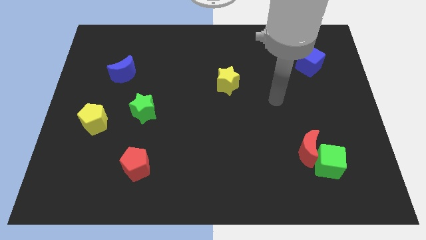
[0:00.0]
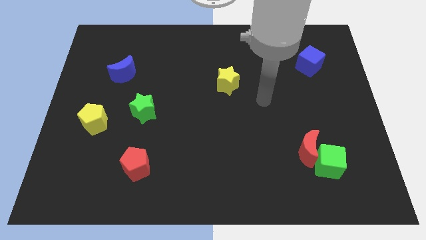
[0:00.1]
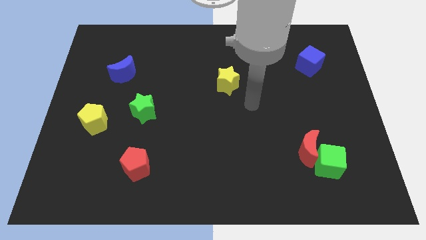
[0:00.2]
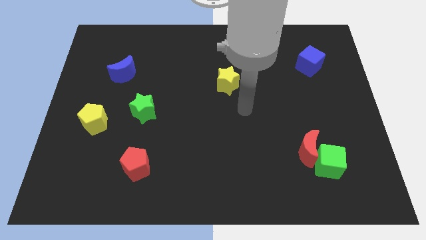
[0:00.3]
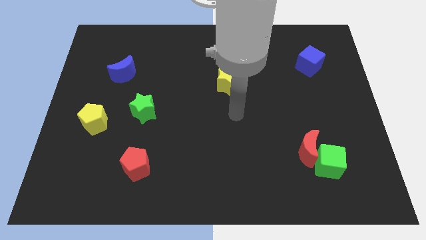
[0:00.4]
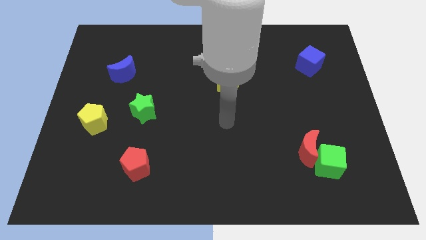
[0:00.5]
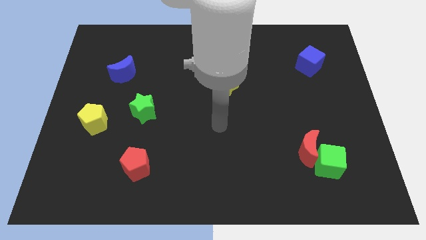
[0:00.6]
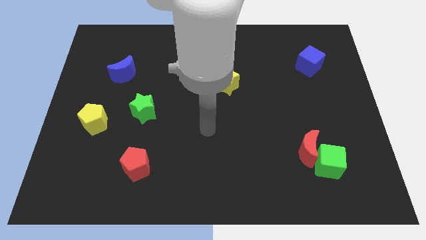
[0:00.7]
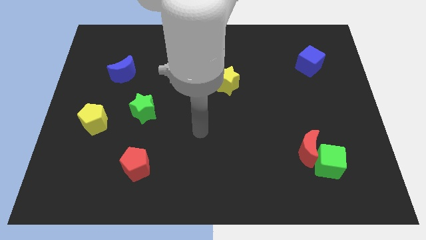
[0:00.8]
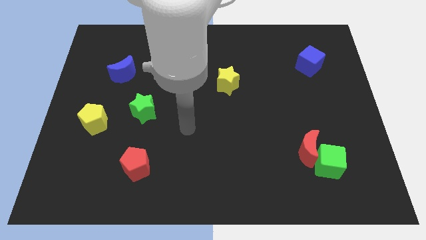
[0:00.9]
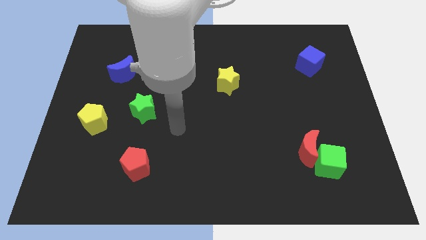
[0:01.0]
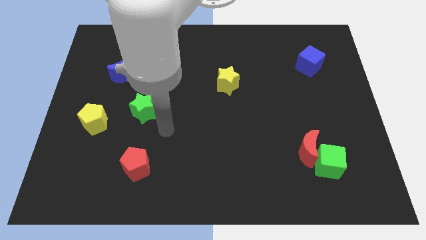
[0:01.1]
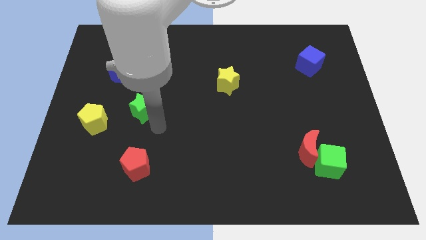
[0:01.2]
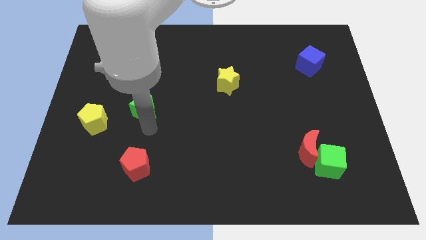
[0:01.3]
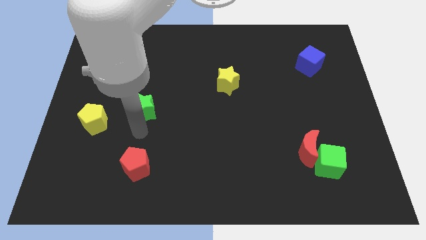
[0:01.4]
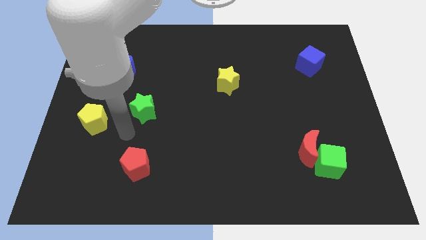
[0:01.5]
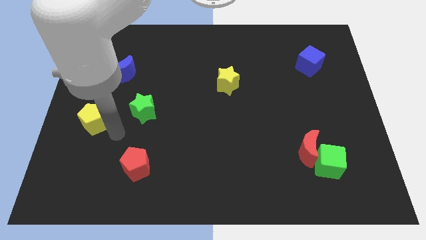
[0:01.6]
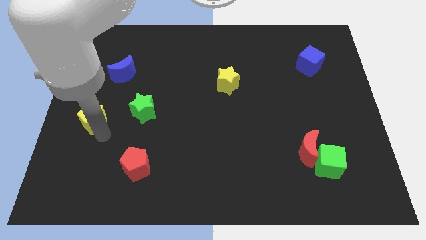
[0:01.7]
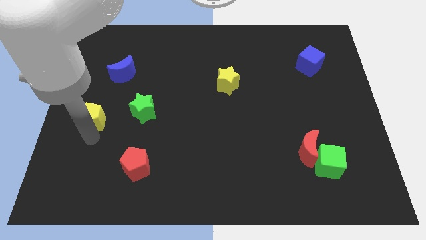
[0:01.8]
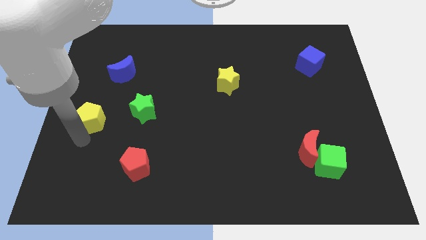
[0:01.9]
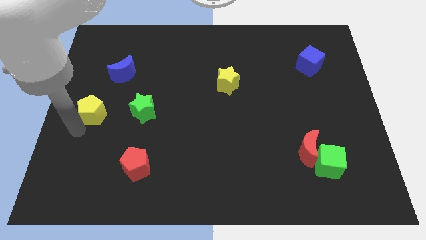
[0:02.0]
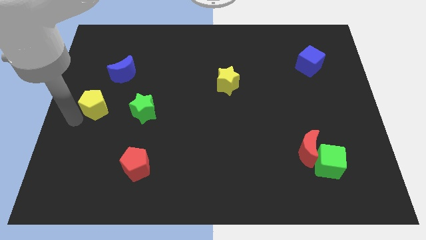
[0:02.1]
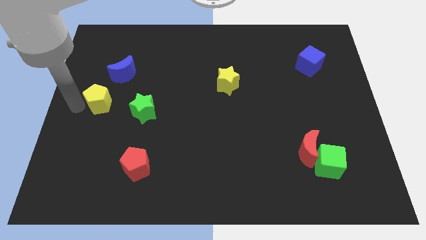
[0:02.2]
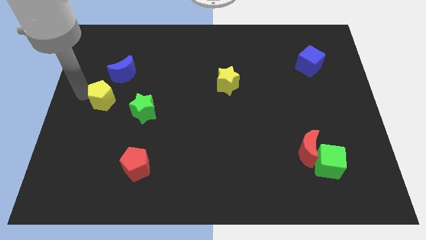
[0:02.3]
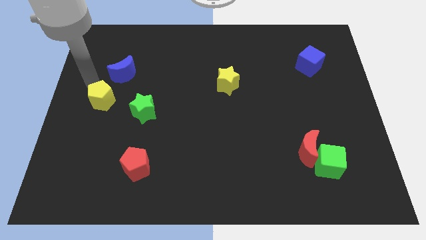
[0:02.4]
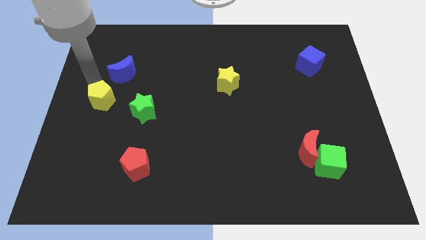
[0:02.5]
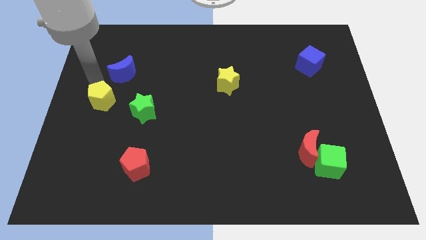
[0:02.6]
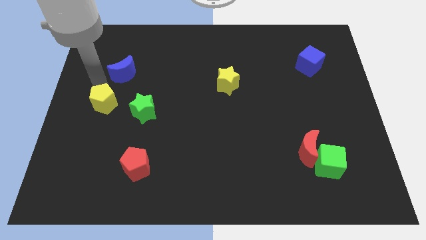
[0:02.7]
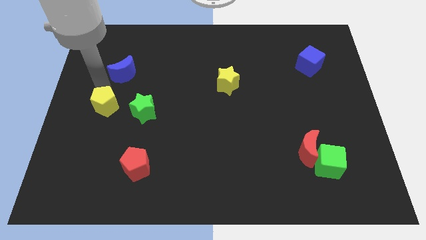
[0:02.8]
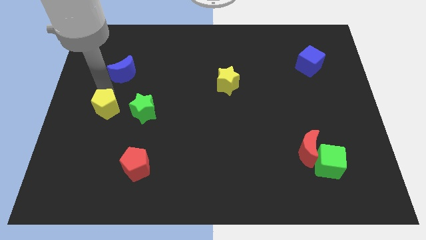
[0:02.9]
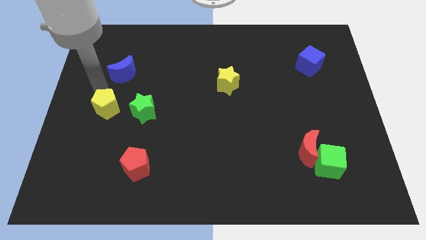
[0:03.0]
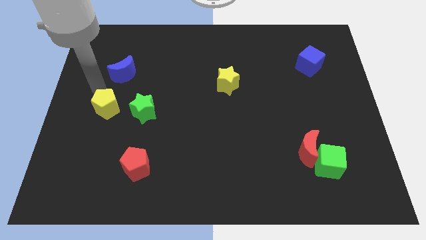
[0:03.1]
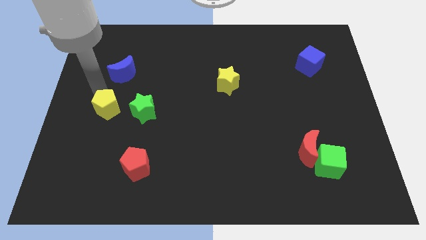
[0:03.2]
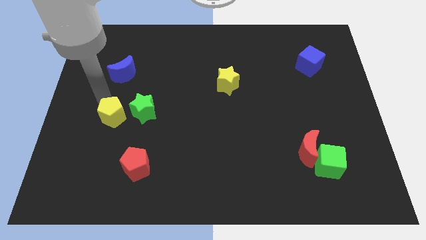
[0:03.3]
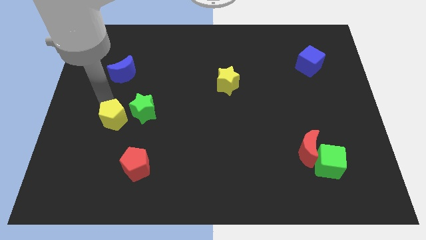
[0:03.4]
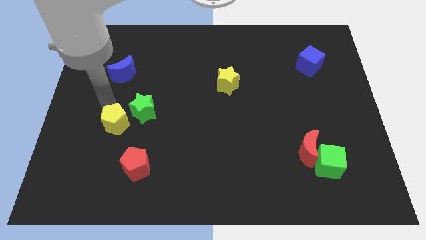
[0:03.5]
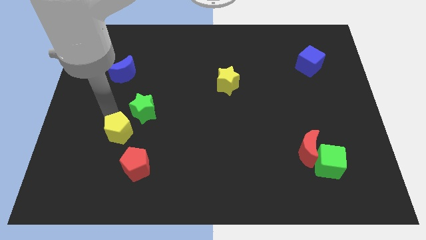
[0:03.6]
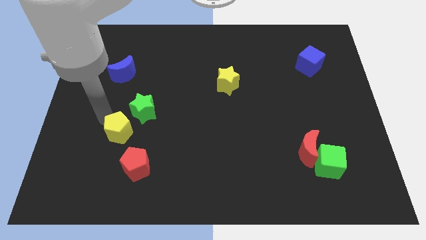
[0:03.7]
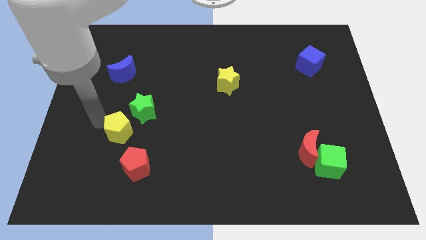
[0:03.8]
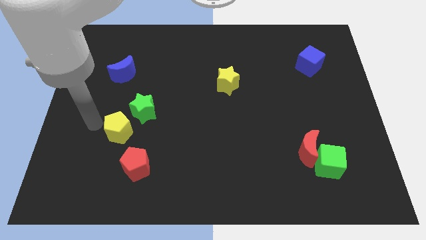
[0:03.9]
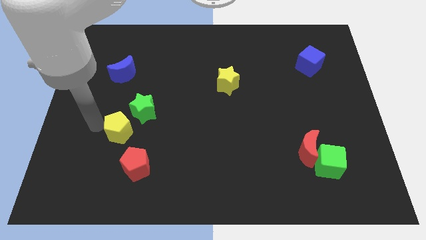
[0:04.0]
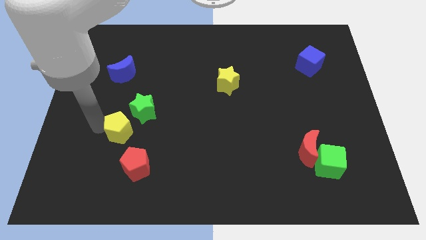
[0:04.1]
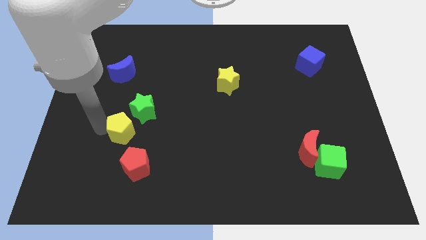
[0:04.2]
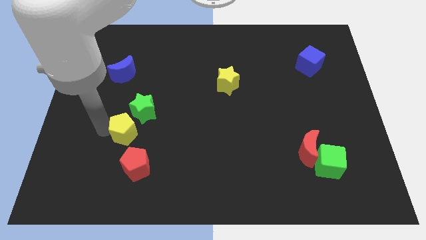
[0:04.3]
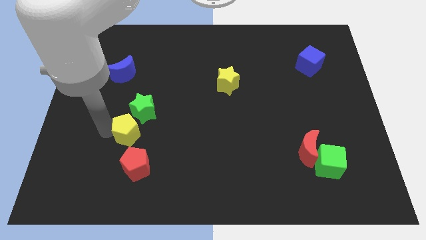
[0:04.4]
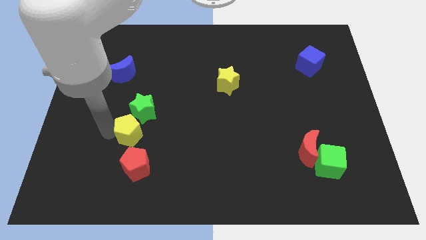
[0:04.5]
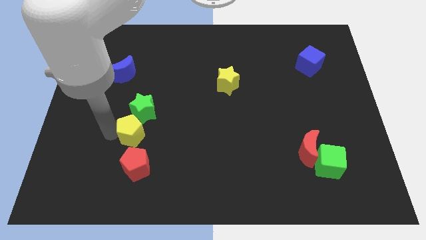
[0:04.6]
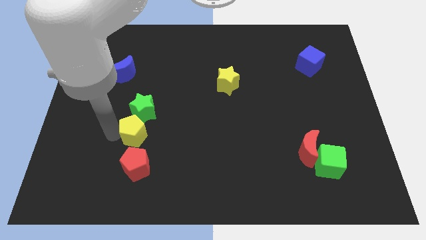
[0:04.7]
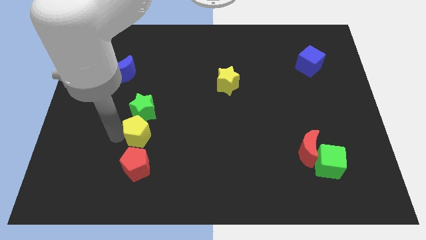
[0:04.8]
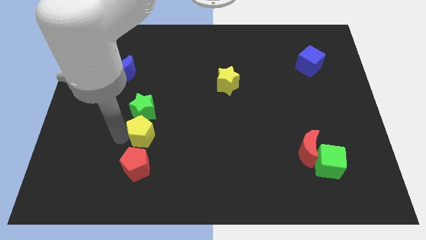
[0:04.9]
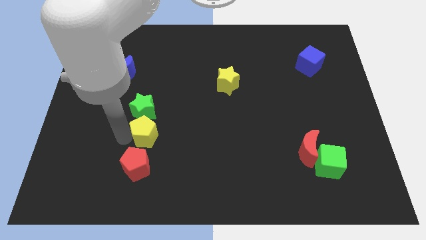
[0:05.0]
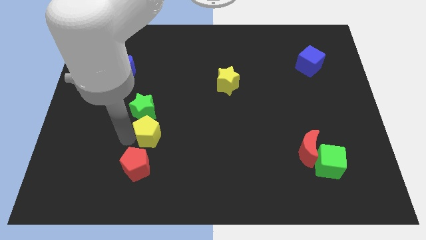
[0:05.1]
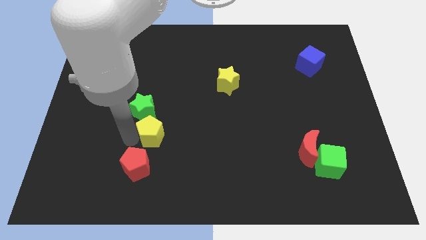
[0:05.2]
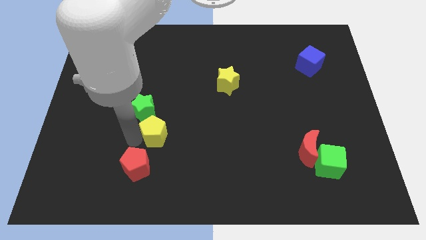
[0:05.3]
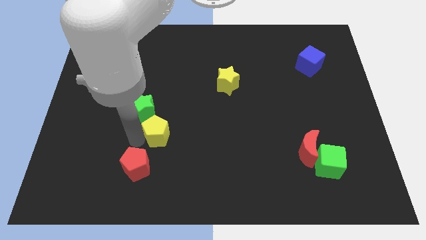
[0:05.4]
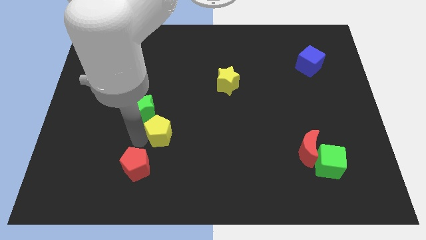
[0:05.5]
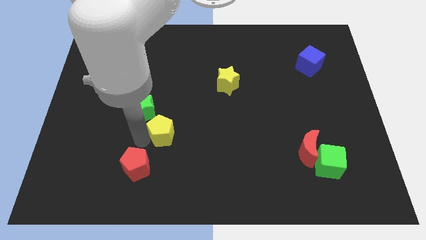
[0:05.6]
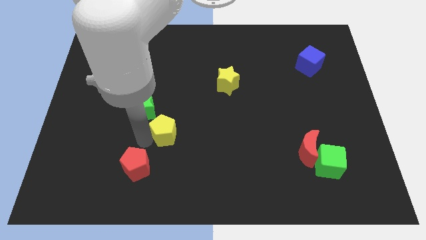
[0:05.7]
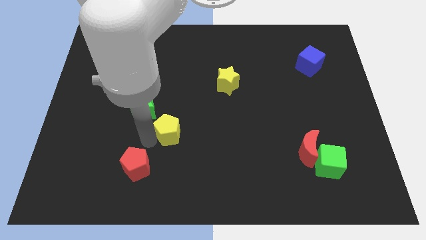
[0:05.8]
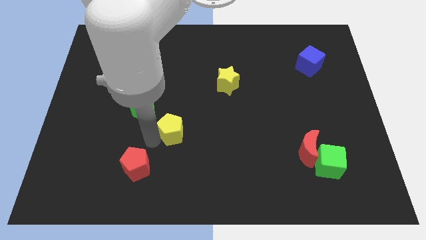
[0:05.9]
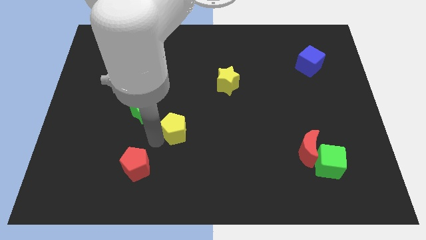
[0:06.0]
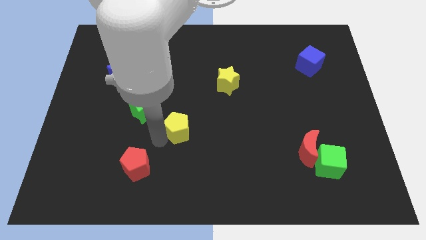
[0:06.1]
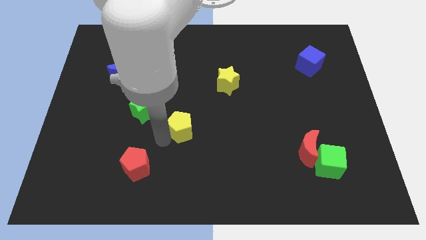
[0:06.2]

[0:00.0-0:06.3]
move the yellow pentagon to the right

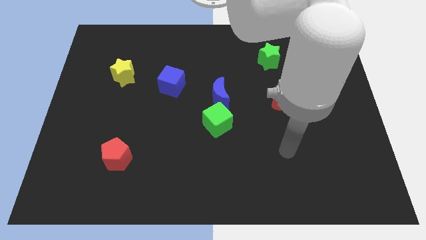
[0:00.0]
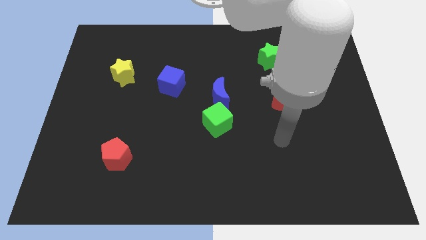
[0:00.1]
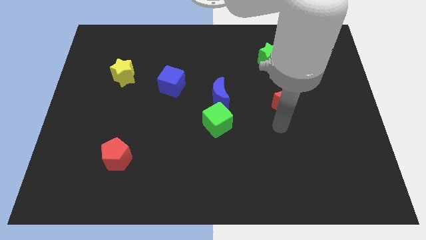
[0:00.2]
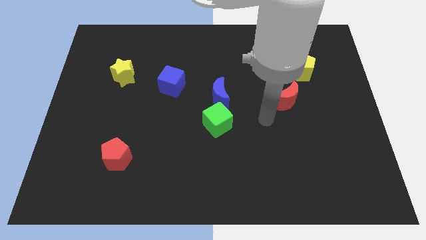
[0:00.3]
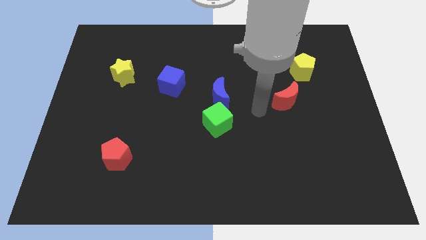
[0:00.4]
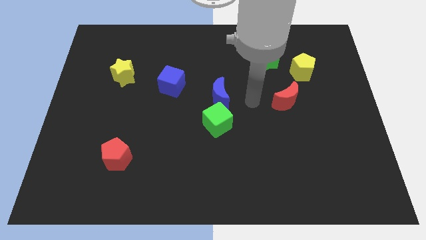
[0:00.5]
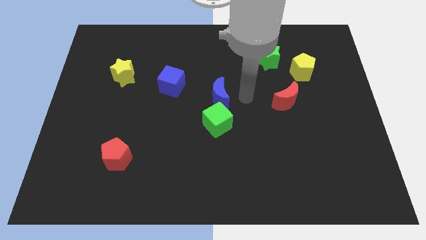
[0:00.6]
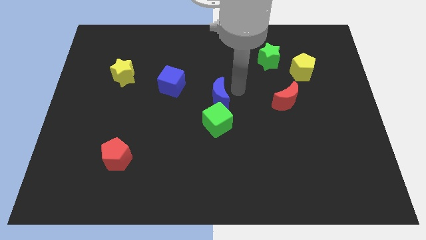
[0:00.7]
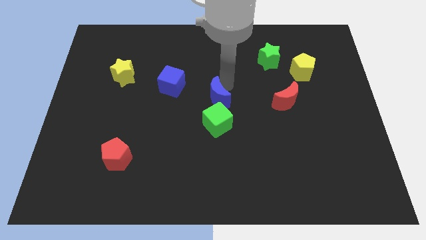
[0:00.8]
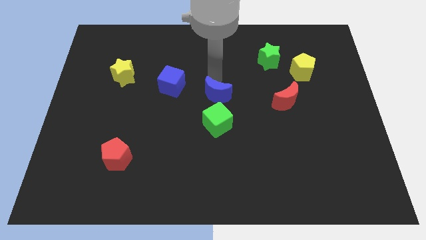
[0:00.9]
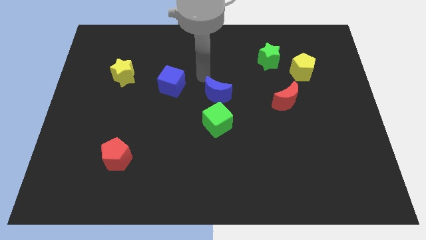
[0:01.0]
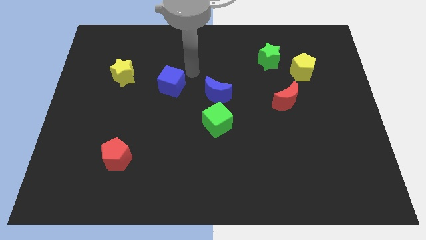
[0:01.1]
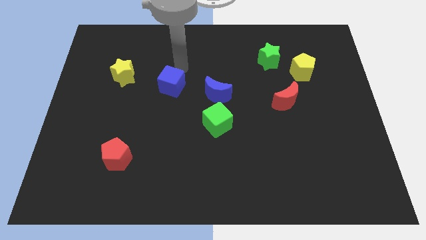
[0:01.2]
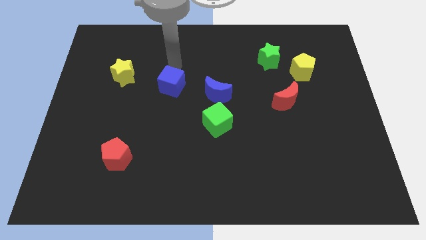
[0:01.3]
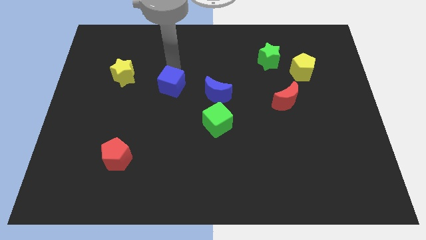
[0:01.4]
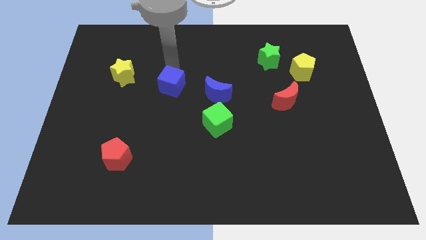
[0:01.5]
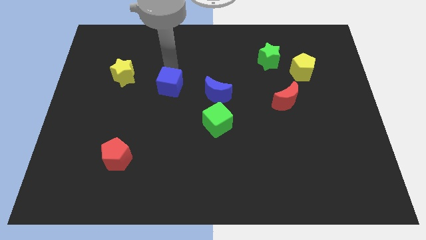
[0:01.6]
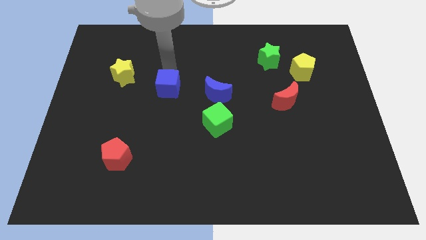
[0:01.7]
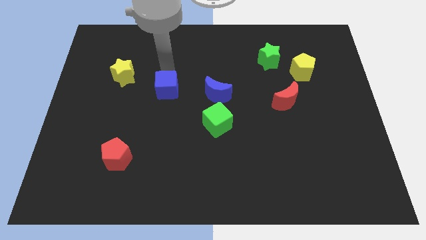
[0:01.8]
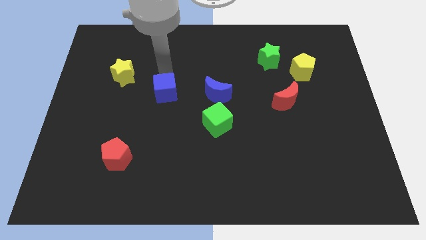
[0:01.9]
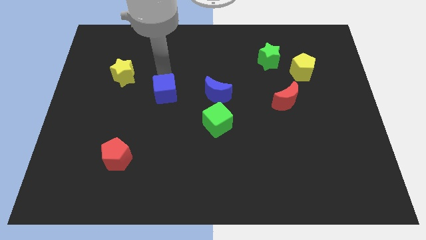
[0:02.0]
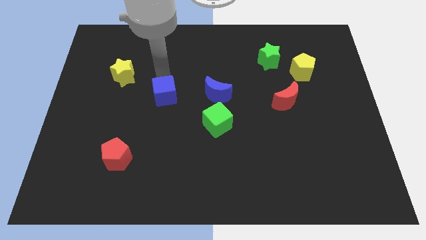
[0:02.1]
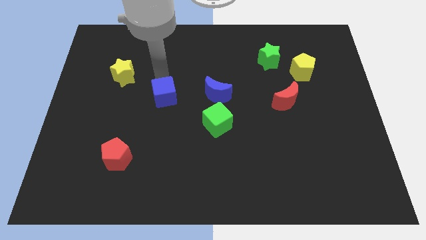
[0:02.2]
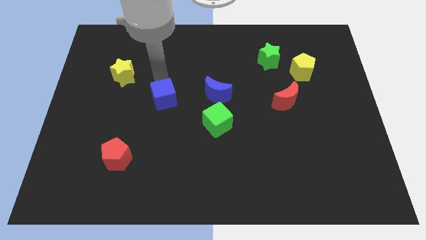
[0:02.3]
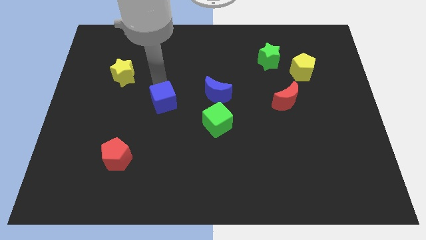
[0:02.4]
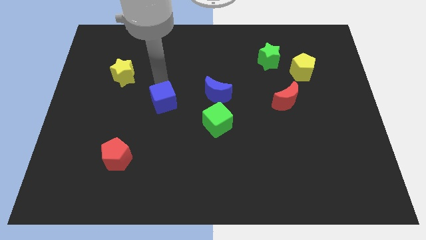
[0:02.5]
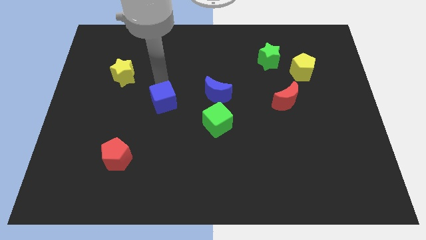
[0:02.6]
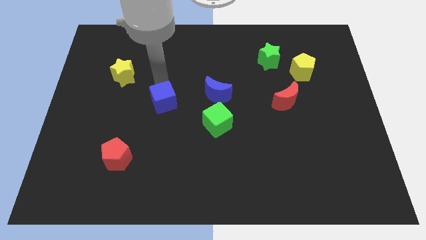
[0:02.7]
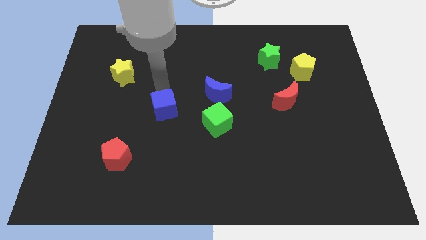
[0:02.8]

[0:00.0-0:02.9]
move the blue cube slightly downwards
